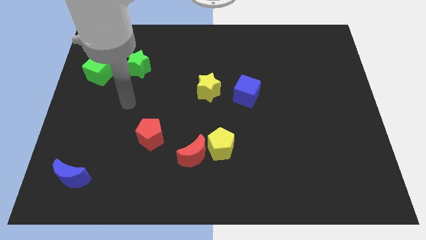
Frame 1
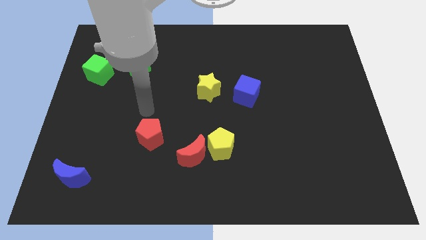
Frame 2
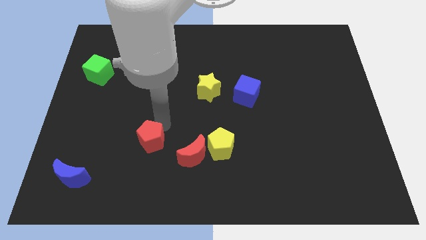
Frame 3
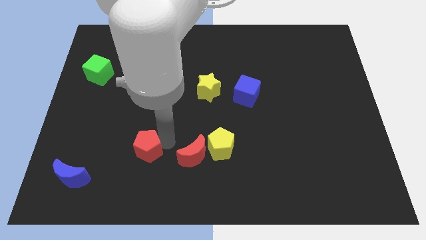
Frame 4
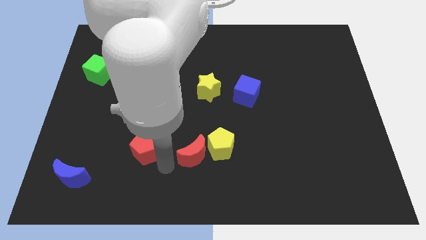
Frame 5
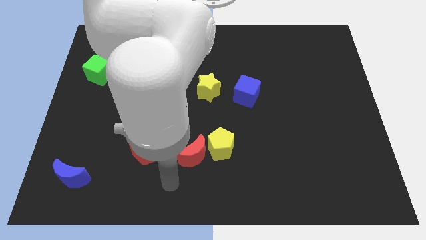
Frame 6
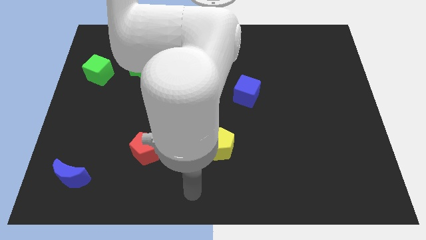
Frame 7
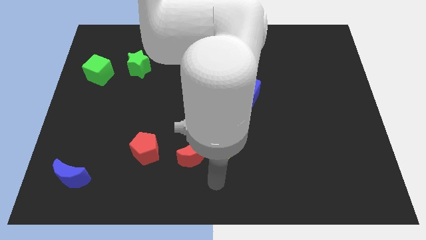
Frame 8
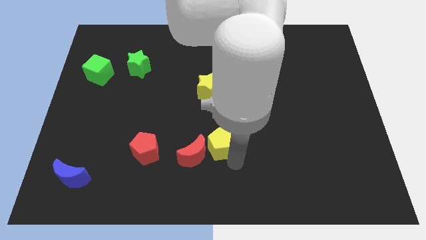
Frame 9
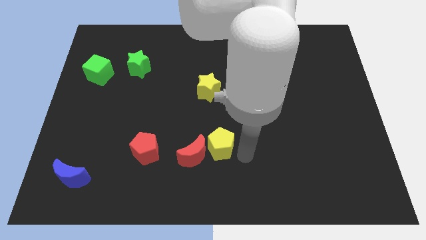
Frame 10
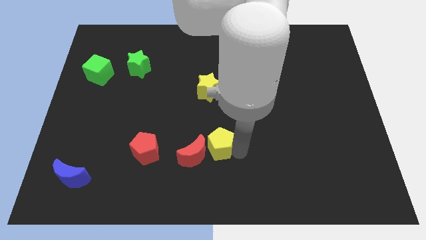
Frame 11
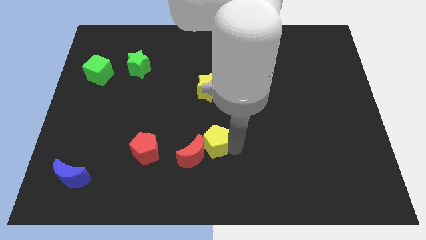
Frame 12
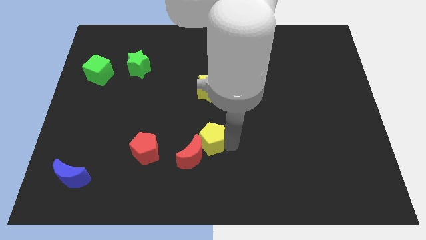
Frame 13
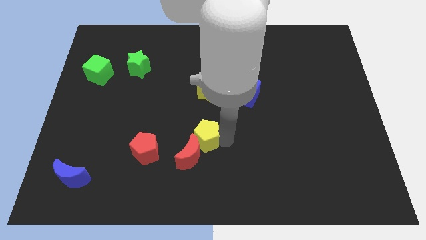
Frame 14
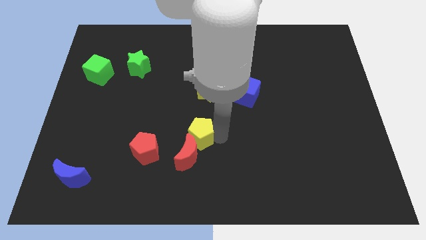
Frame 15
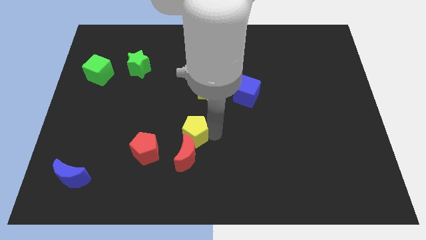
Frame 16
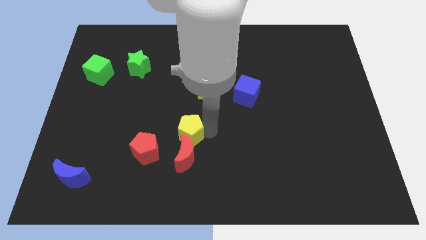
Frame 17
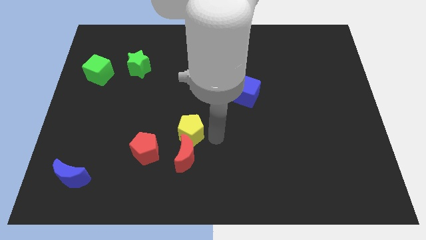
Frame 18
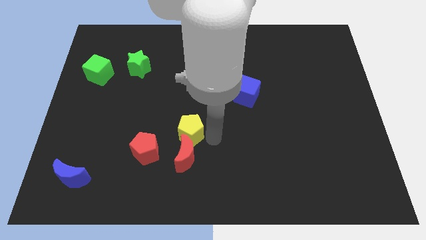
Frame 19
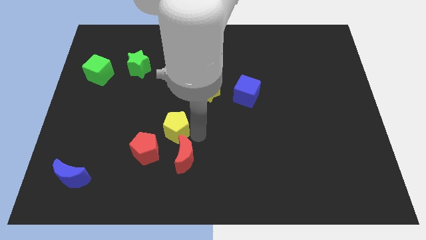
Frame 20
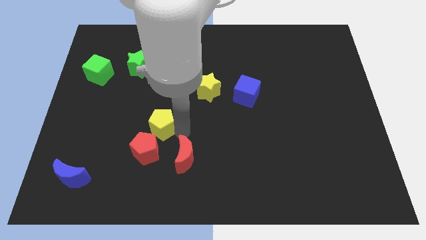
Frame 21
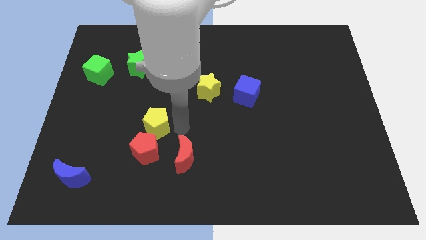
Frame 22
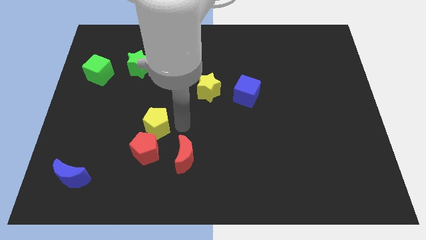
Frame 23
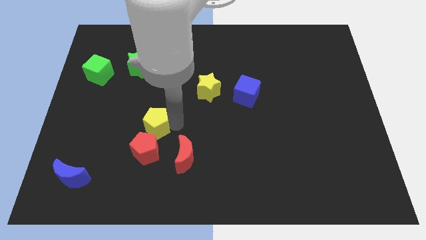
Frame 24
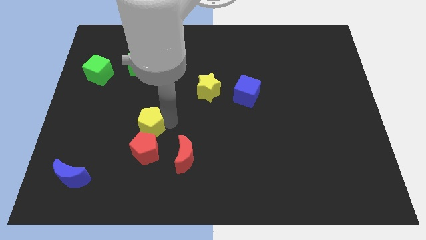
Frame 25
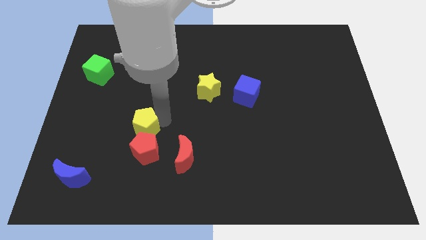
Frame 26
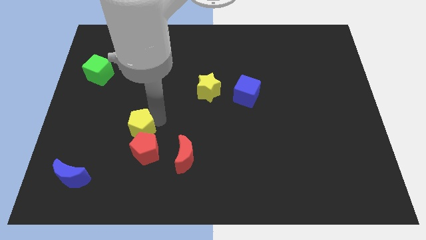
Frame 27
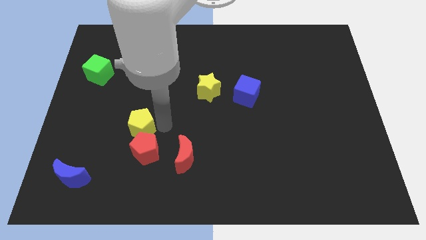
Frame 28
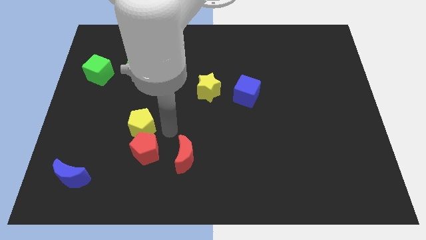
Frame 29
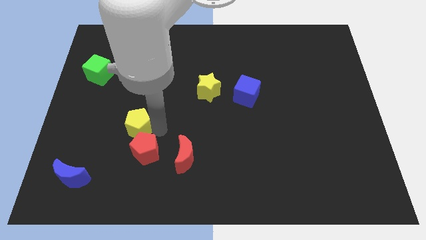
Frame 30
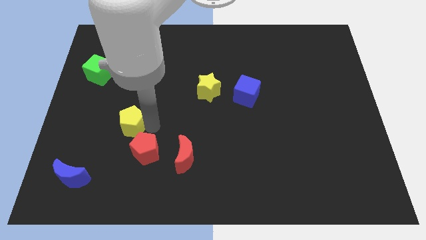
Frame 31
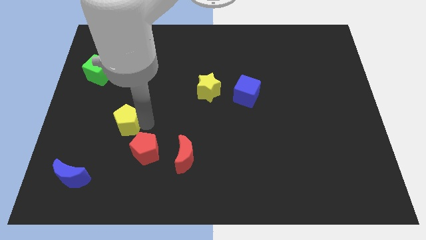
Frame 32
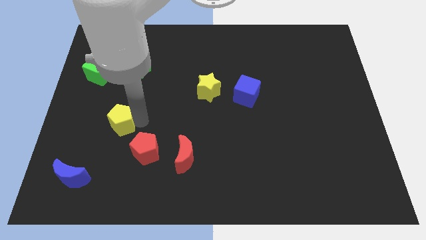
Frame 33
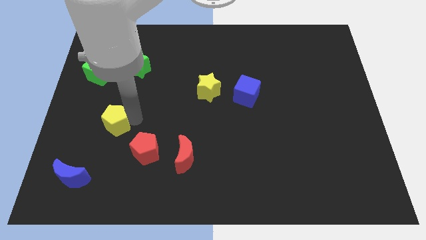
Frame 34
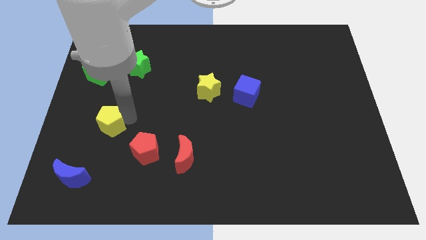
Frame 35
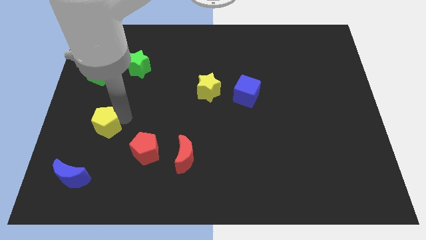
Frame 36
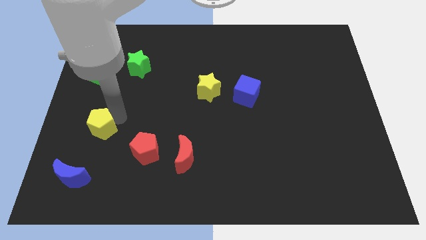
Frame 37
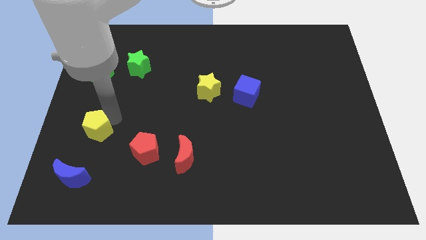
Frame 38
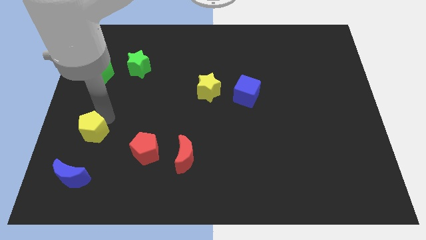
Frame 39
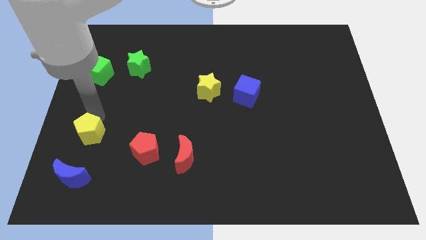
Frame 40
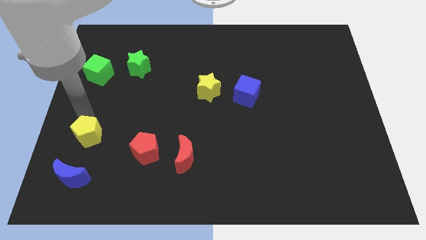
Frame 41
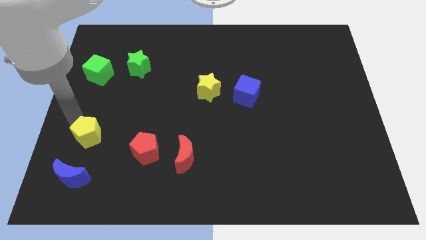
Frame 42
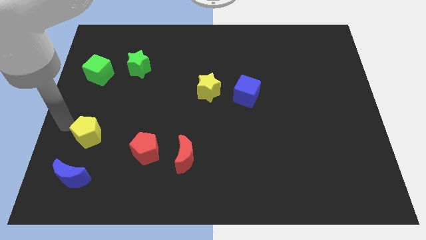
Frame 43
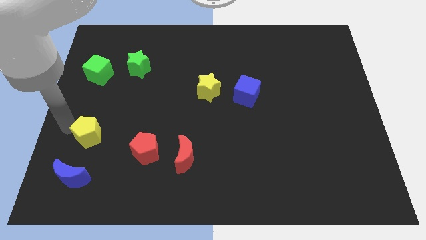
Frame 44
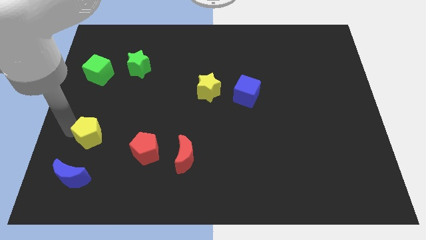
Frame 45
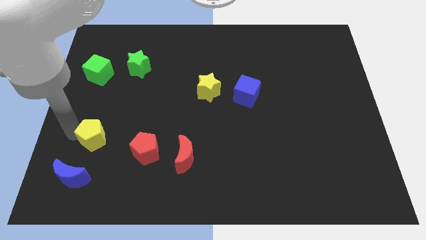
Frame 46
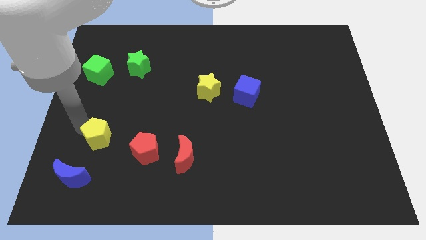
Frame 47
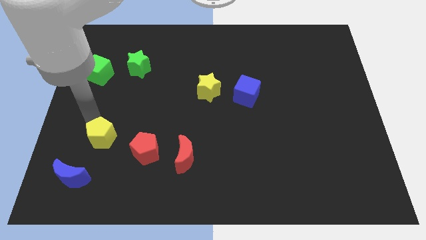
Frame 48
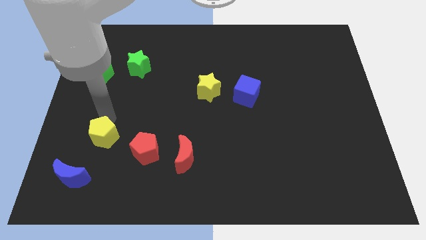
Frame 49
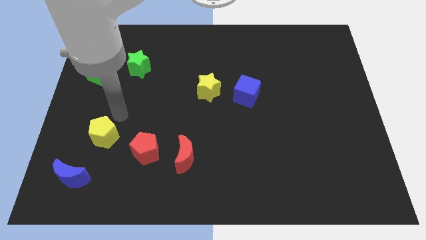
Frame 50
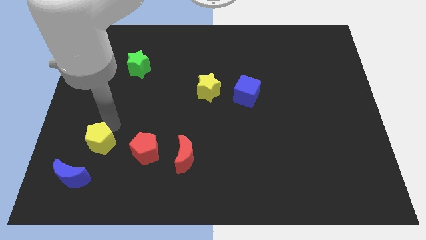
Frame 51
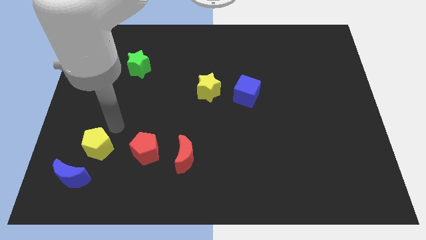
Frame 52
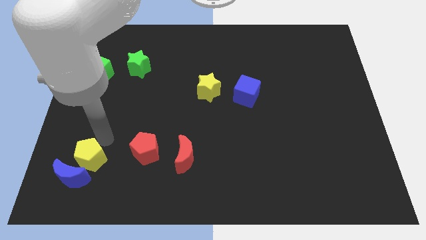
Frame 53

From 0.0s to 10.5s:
slide the yellow pentagon to the blue moon

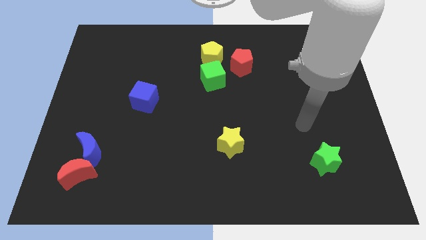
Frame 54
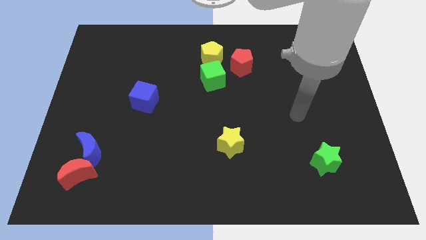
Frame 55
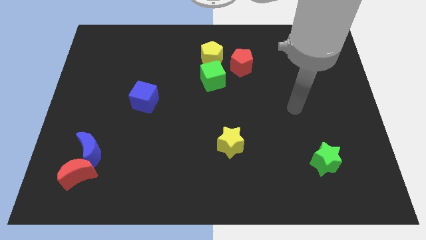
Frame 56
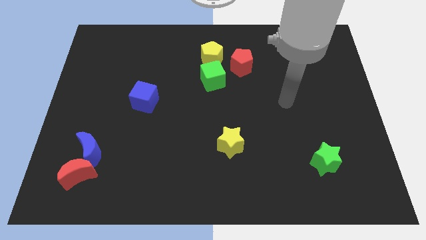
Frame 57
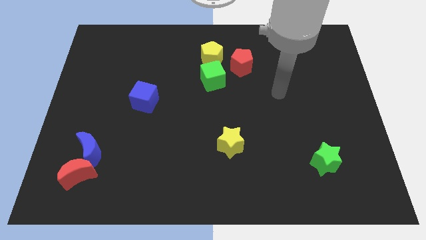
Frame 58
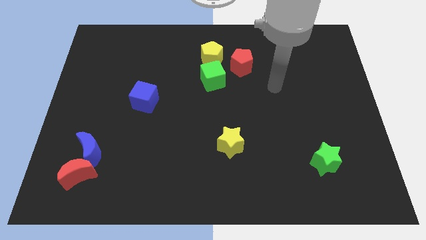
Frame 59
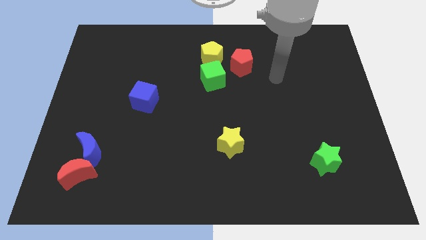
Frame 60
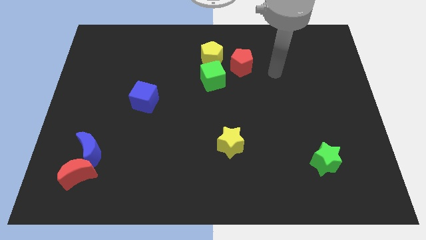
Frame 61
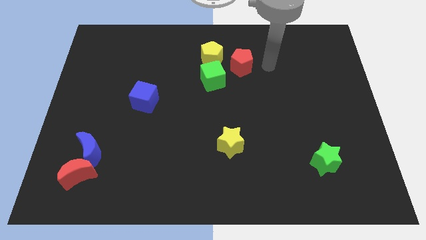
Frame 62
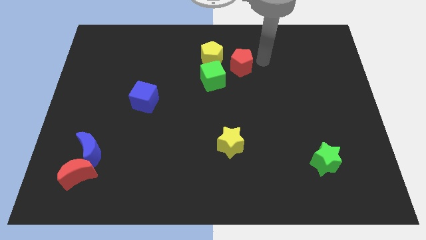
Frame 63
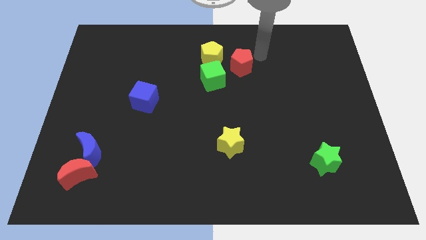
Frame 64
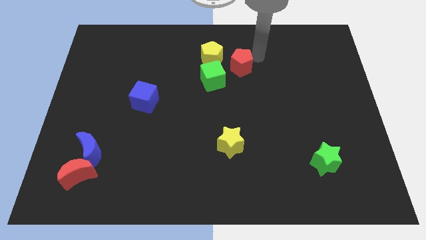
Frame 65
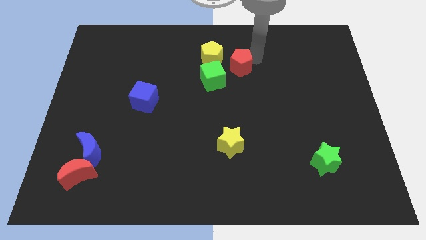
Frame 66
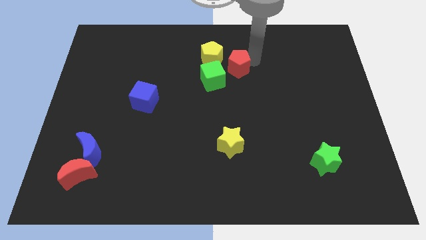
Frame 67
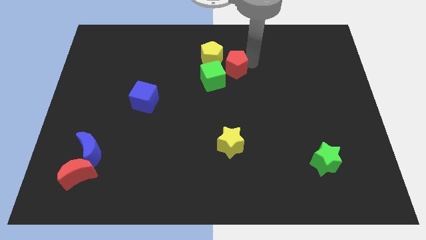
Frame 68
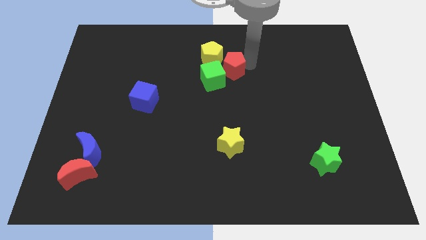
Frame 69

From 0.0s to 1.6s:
put the red pentagon to the green cube
